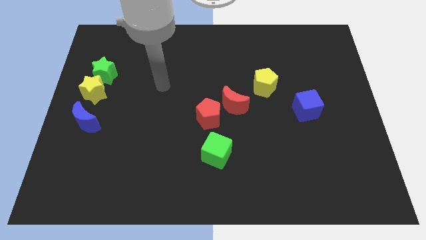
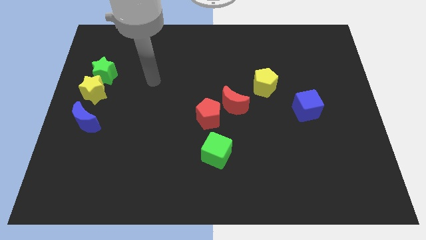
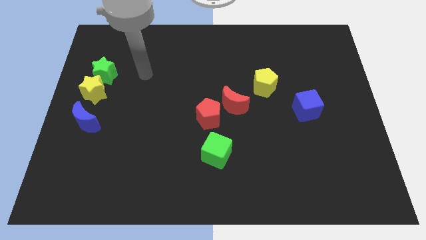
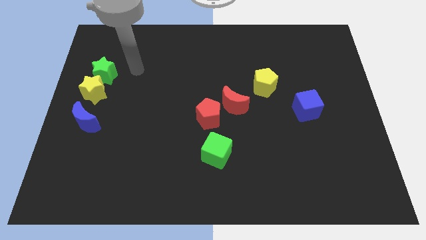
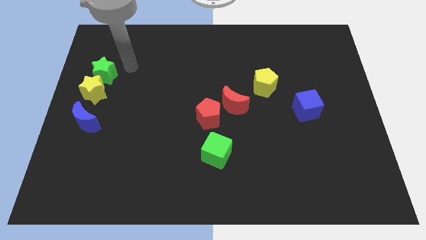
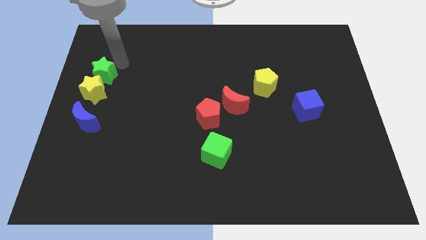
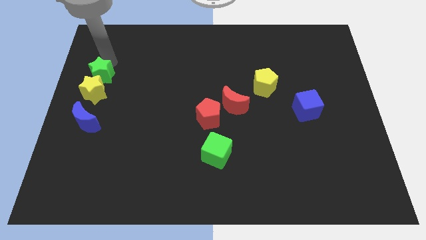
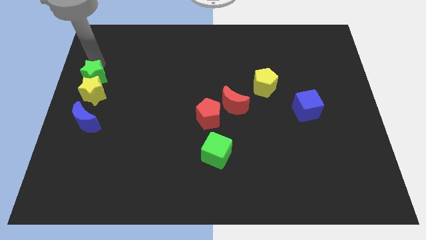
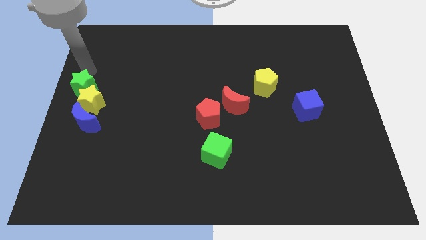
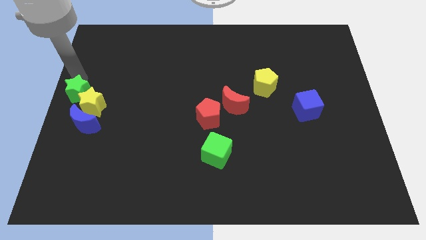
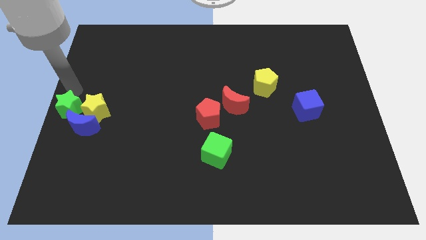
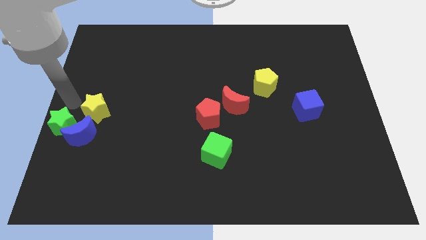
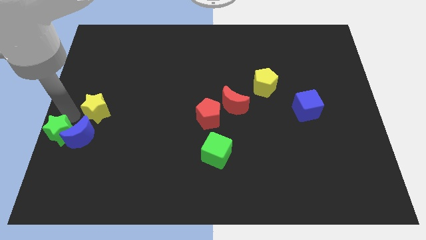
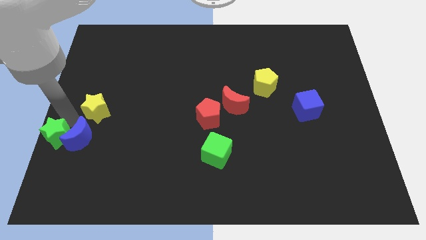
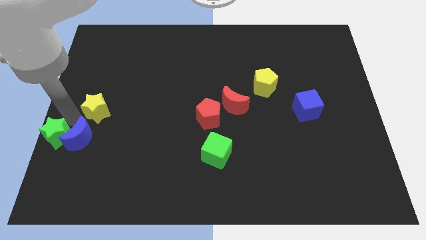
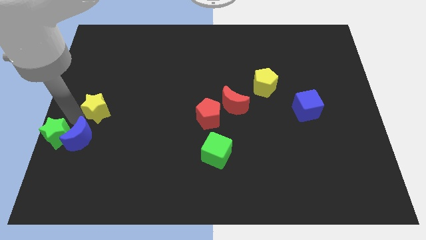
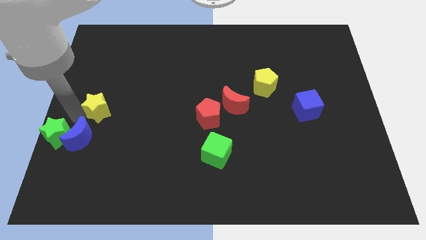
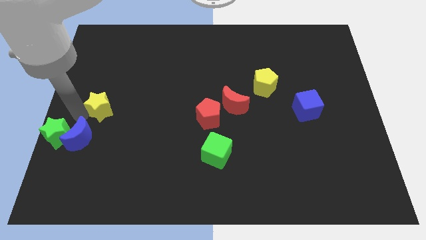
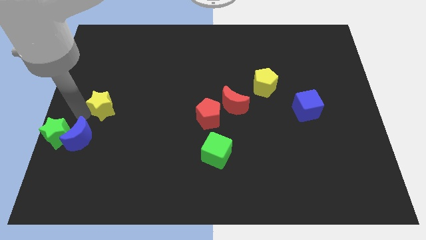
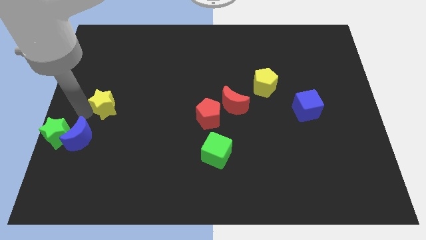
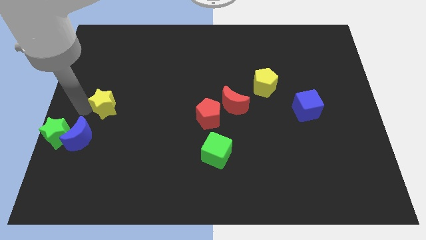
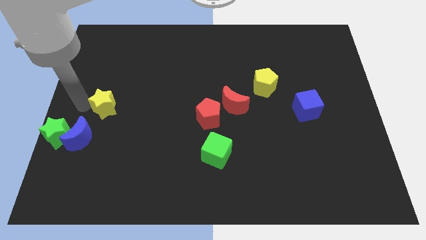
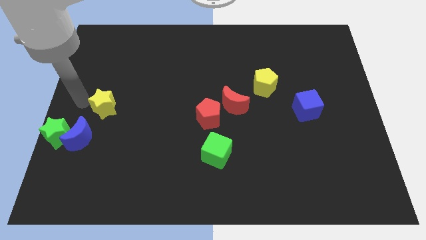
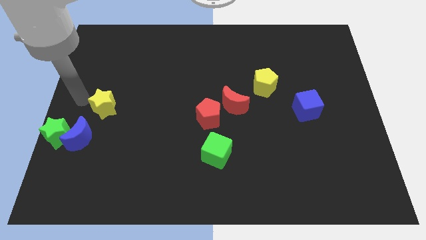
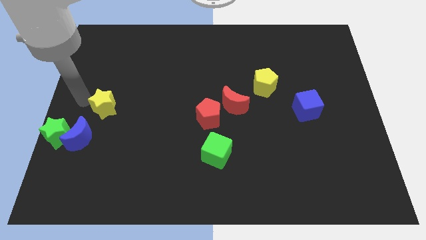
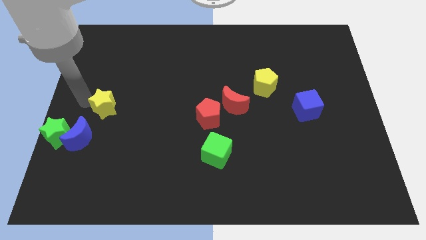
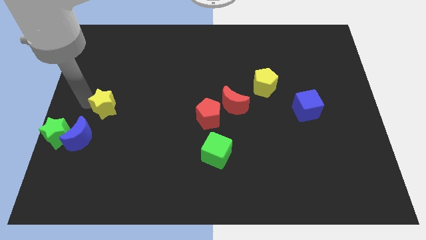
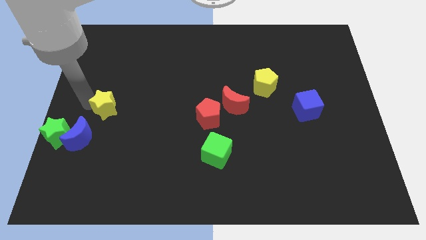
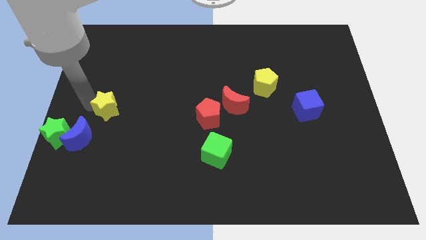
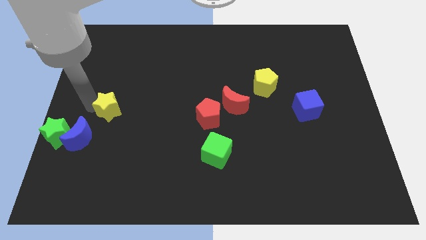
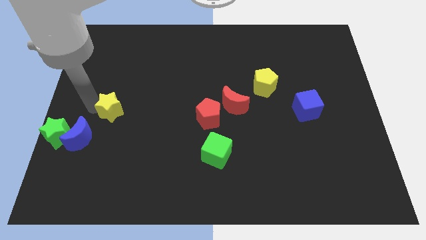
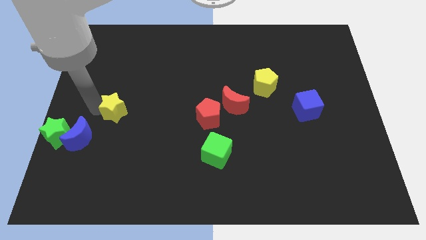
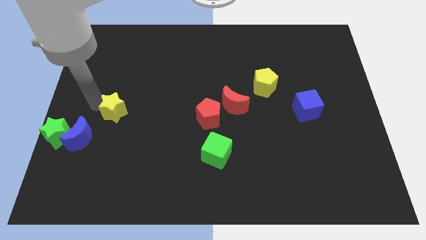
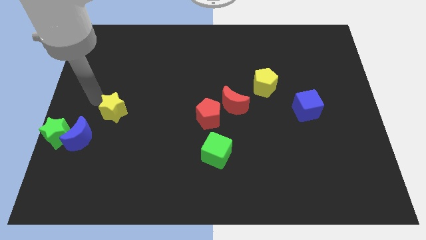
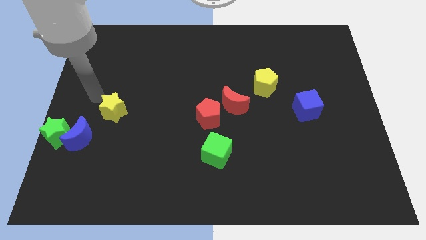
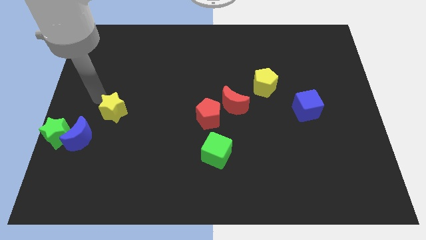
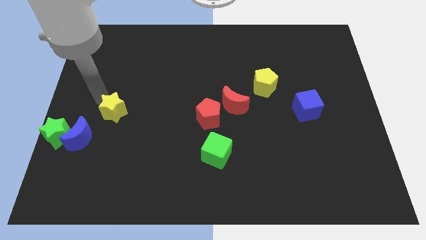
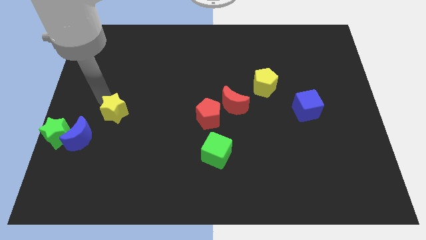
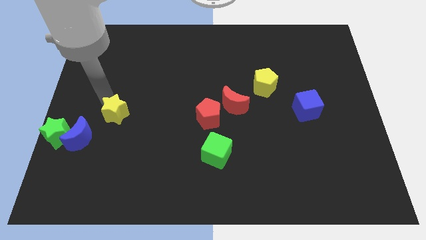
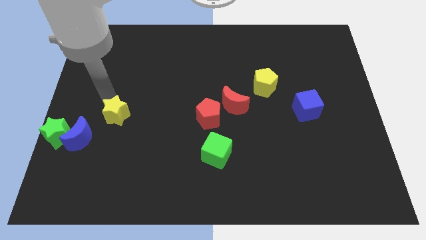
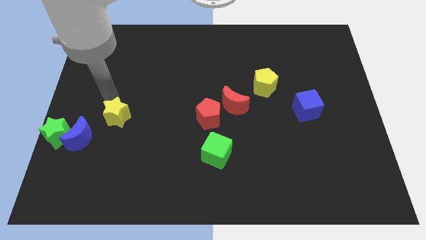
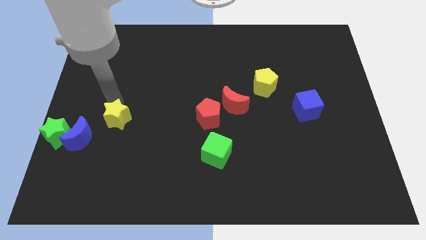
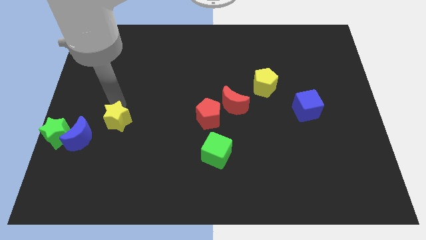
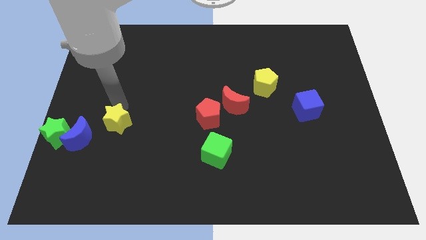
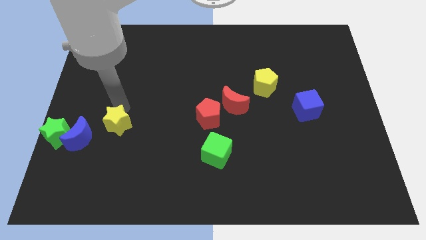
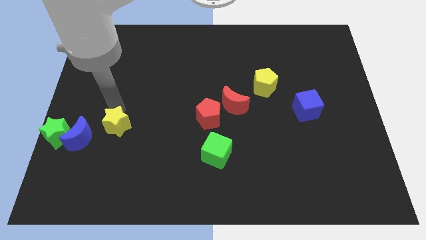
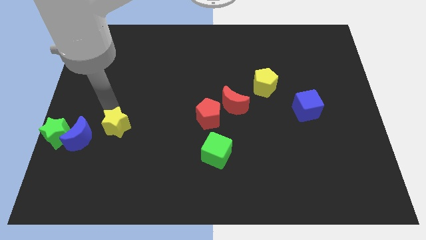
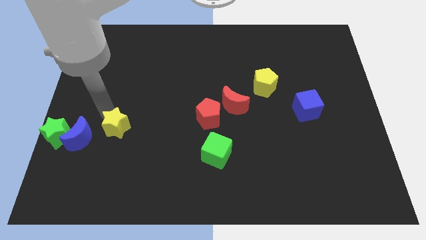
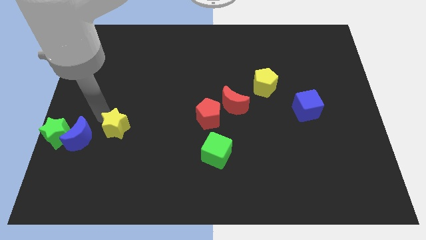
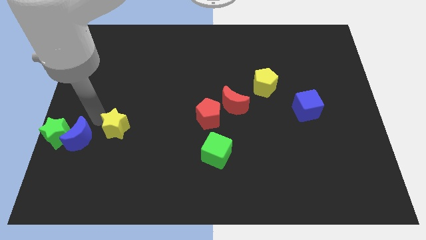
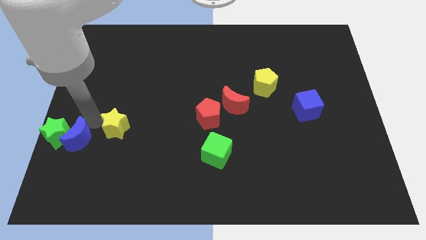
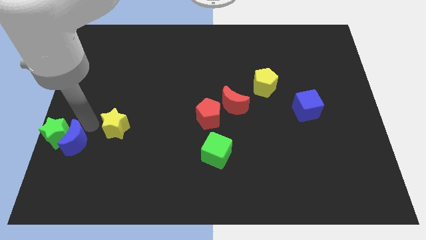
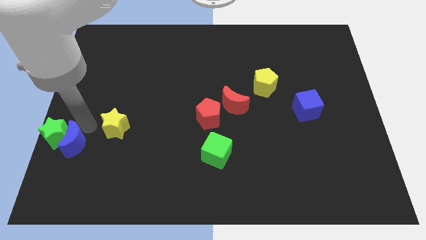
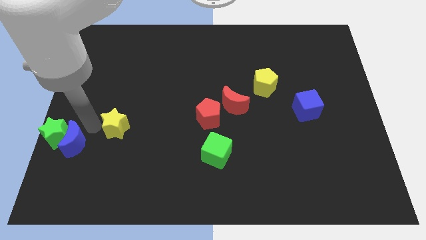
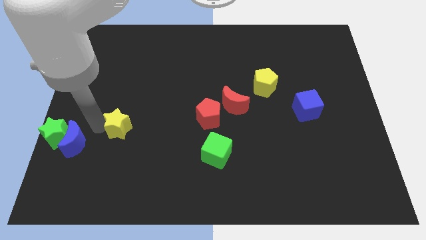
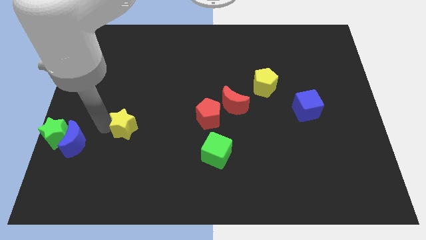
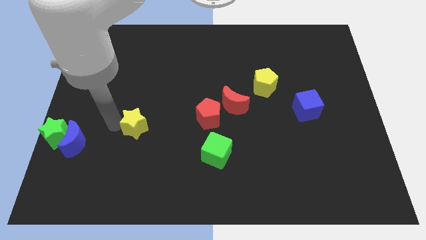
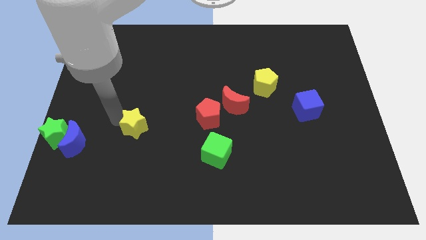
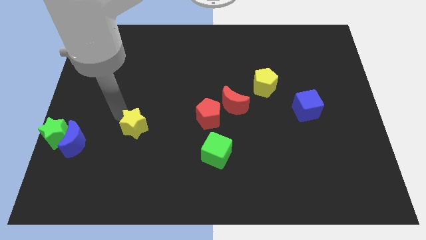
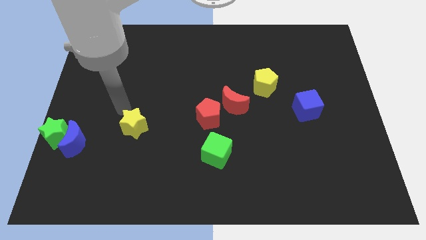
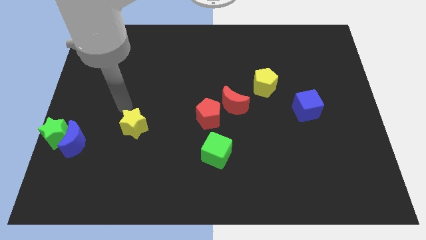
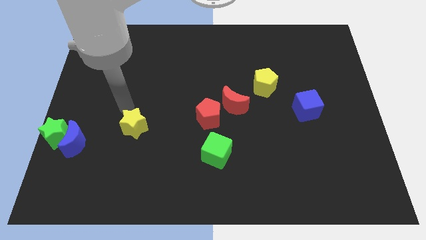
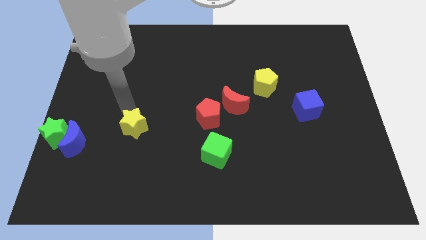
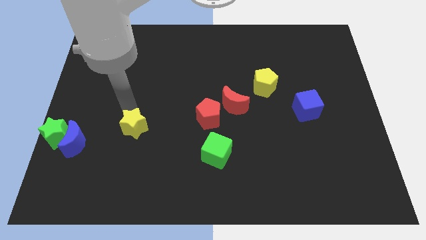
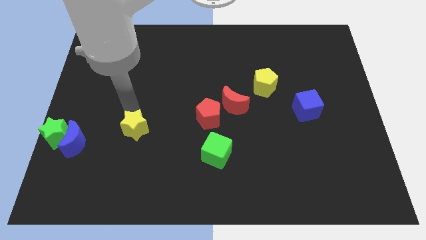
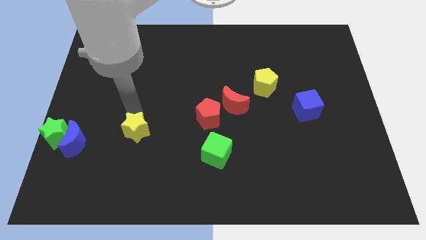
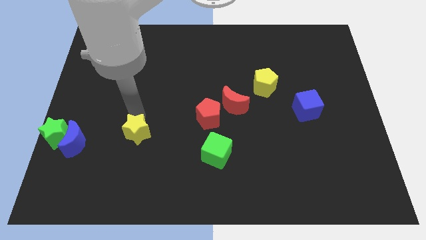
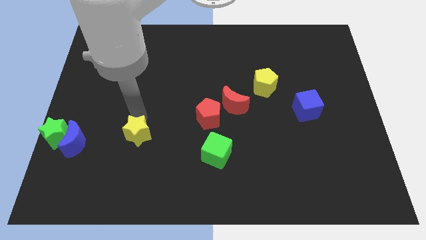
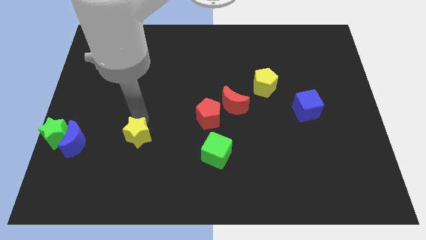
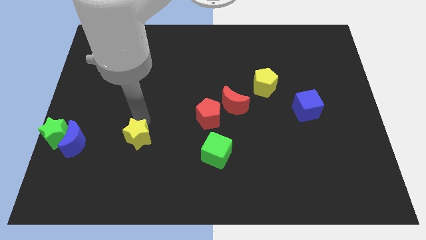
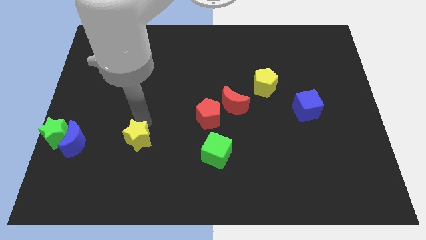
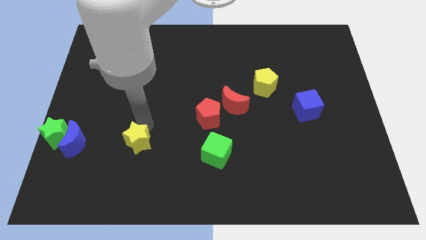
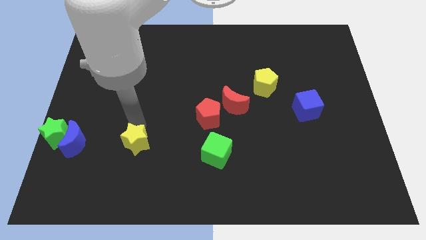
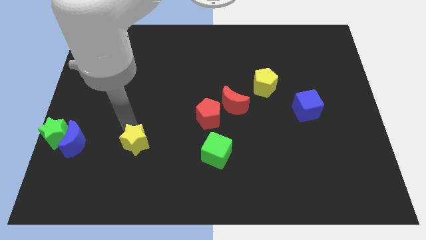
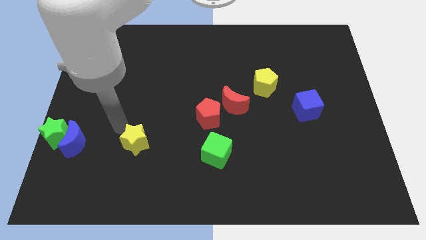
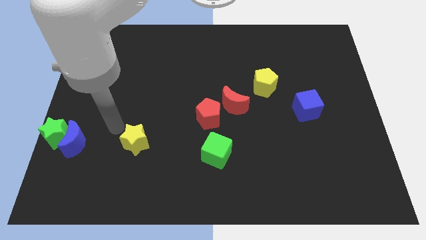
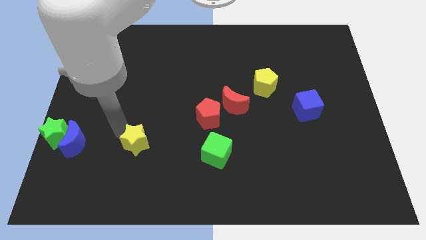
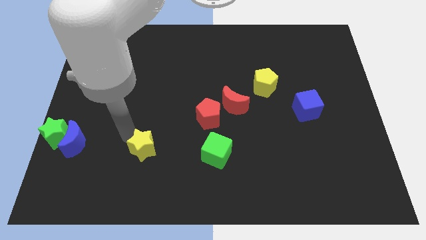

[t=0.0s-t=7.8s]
move the yellow star down and then right

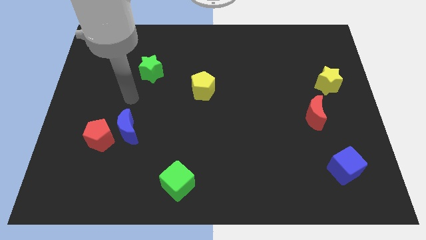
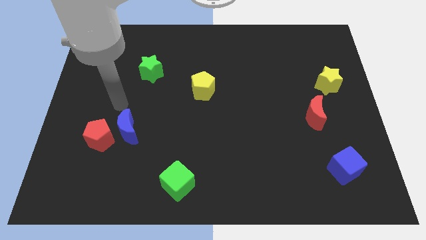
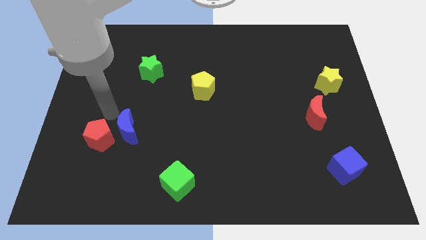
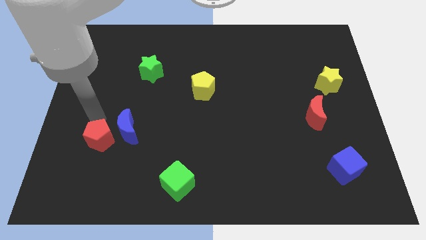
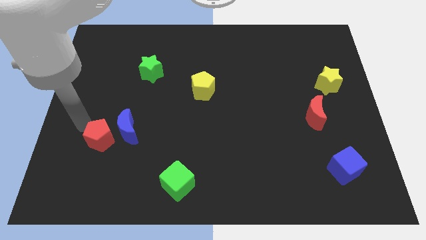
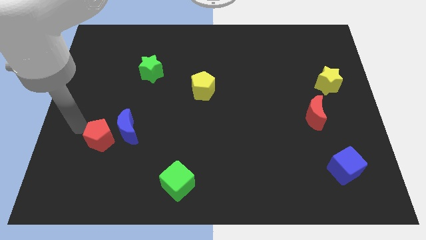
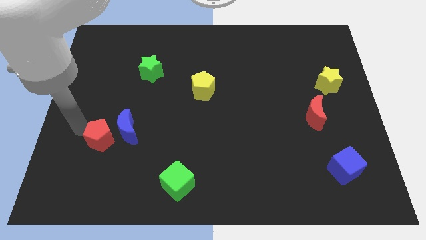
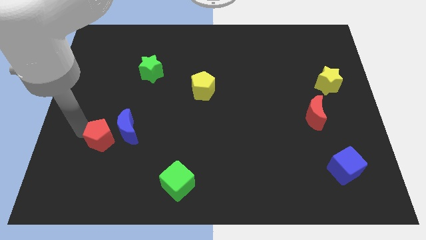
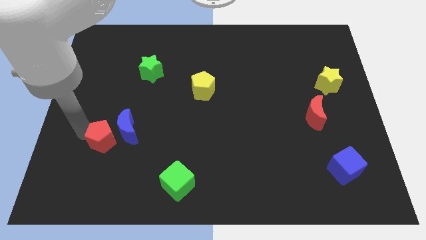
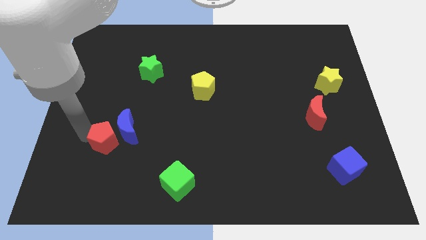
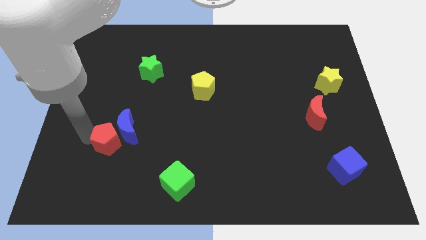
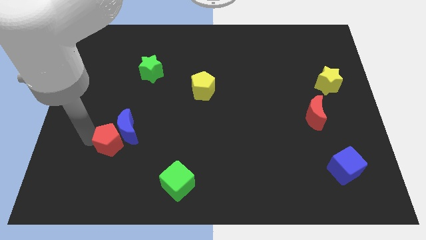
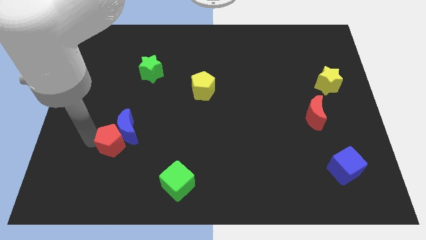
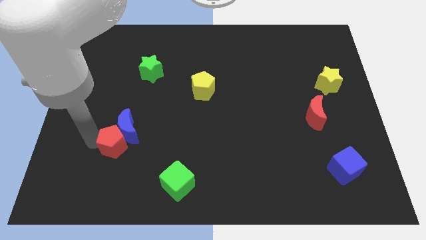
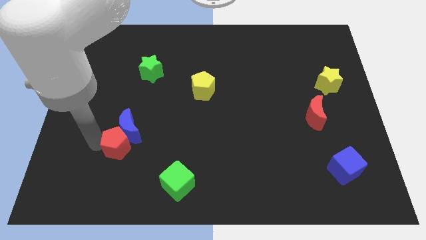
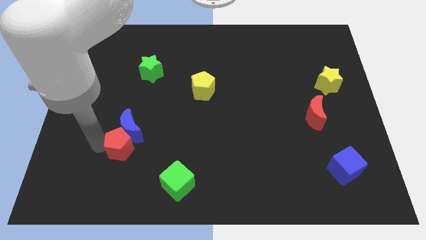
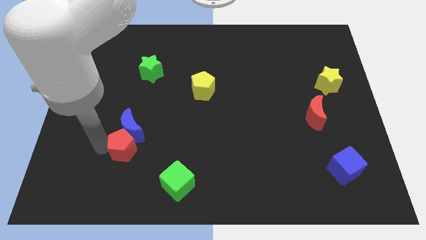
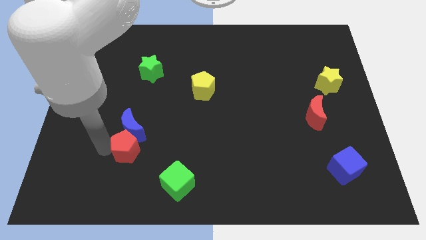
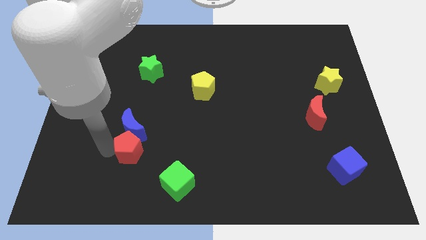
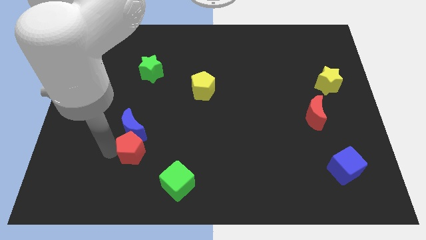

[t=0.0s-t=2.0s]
slightly slide the red pentagon right
